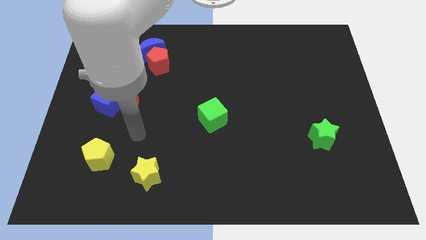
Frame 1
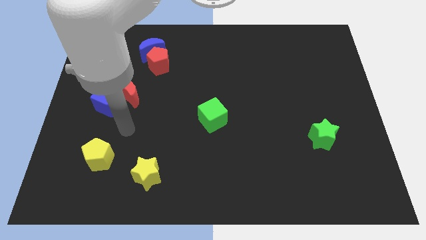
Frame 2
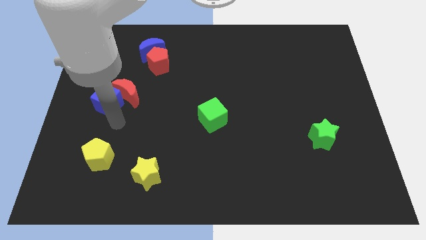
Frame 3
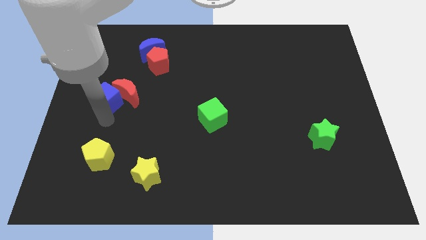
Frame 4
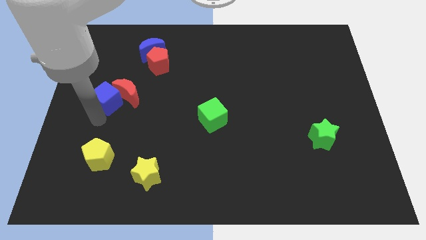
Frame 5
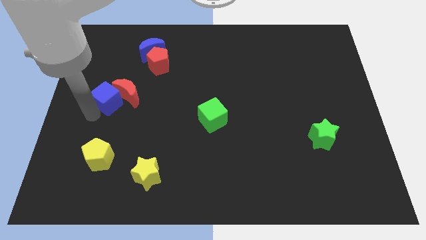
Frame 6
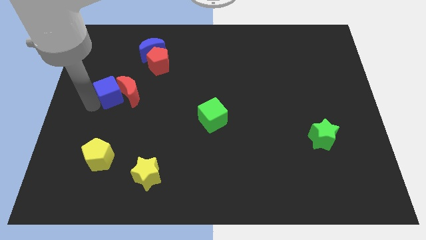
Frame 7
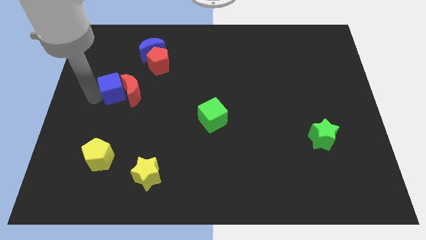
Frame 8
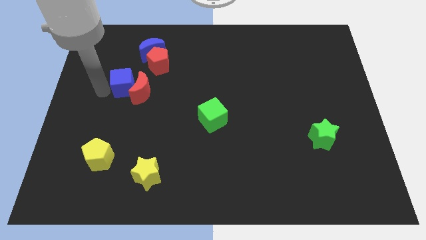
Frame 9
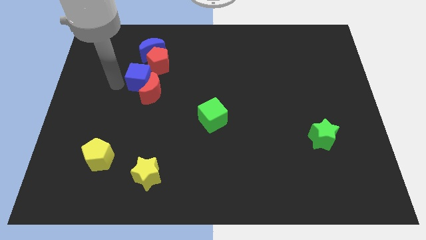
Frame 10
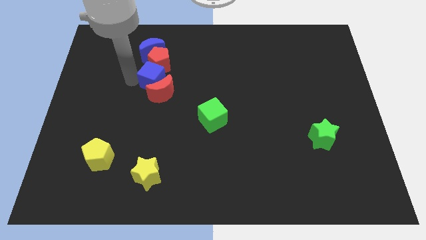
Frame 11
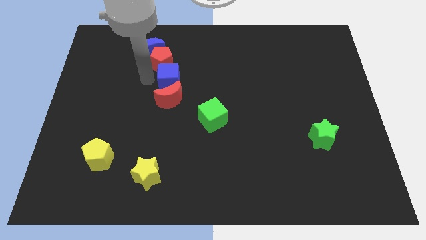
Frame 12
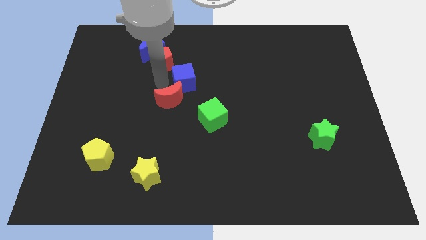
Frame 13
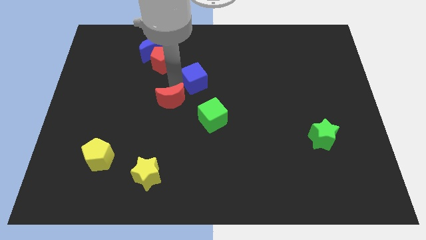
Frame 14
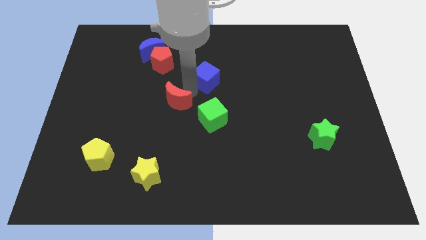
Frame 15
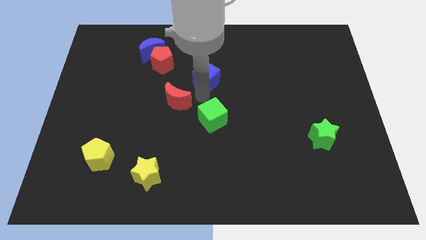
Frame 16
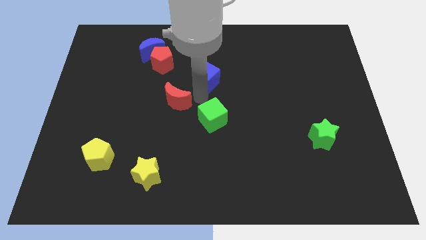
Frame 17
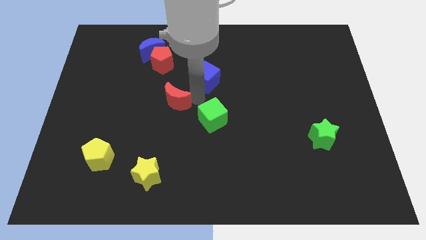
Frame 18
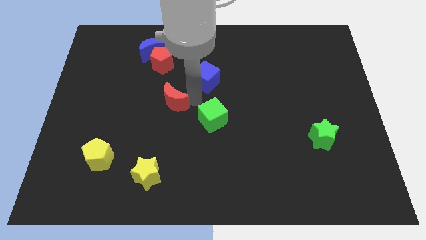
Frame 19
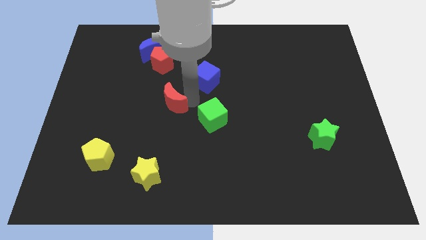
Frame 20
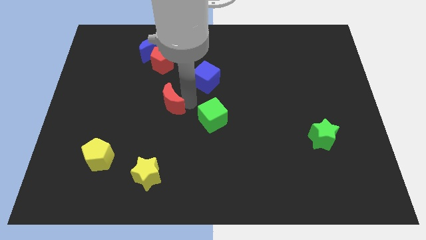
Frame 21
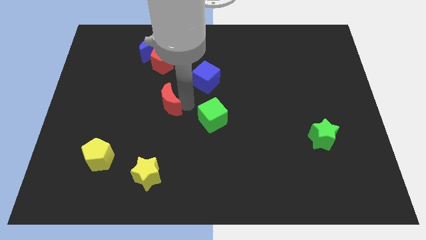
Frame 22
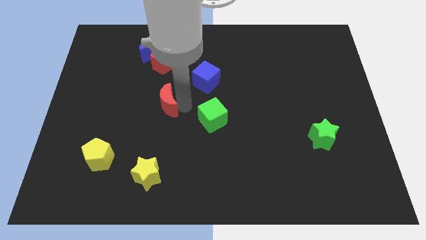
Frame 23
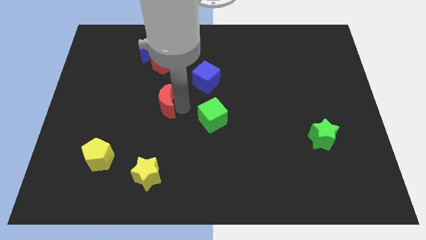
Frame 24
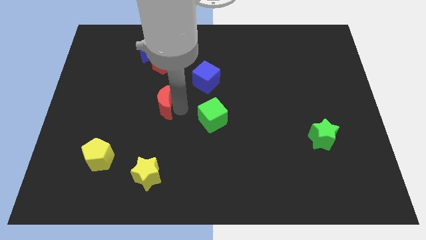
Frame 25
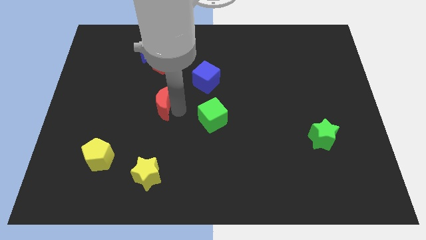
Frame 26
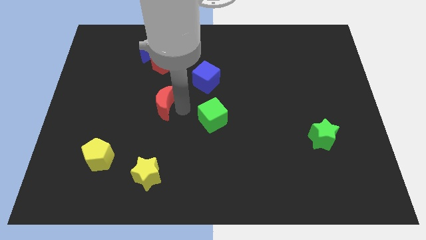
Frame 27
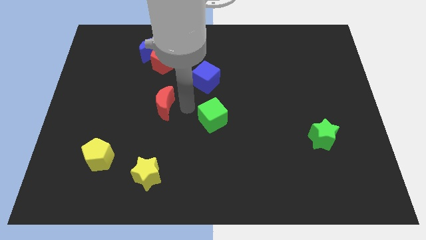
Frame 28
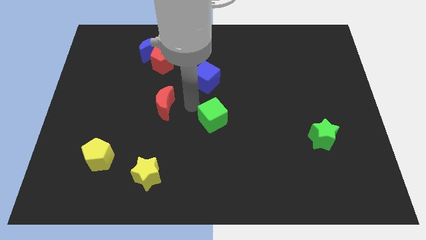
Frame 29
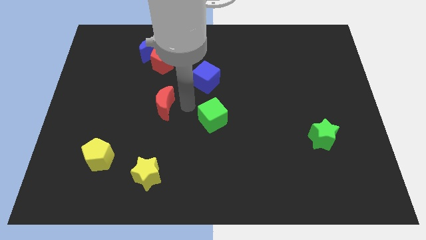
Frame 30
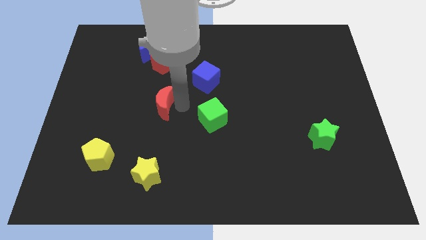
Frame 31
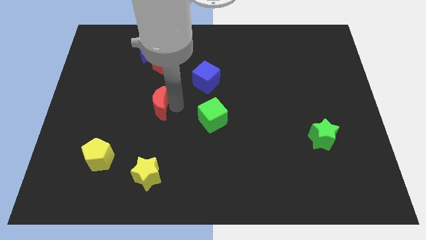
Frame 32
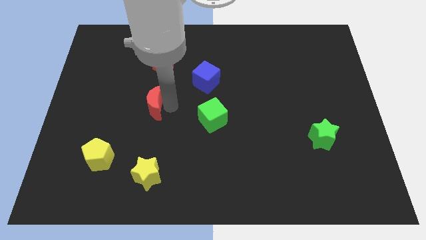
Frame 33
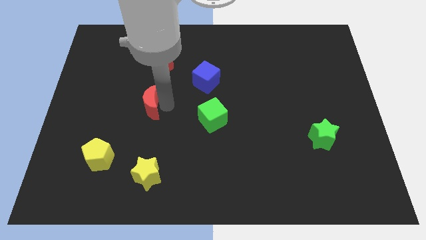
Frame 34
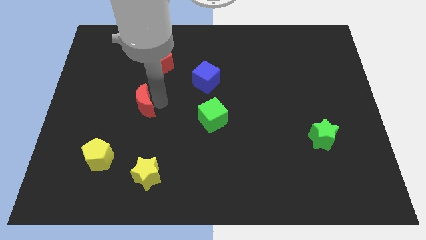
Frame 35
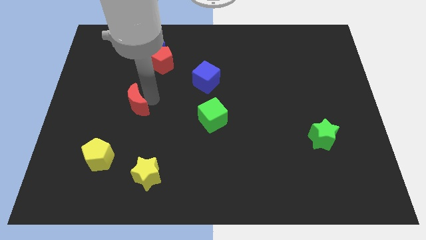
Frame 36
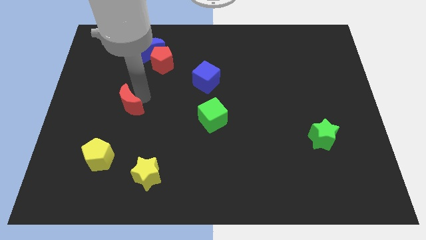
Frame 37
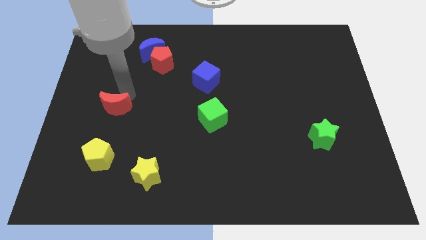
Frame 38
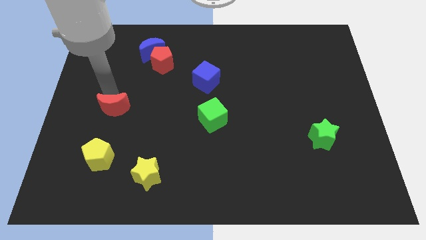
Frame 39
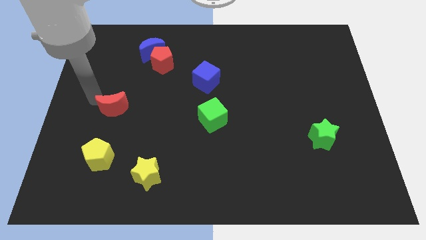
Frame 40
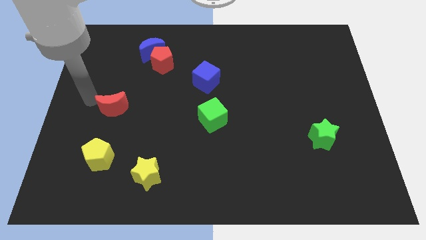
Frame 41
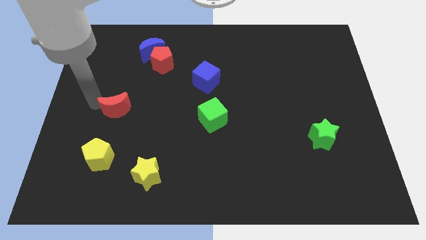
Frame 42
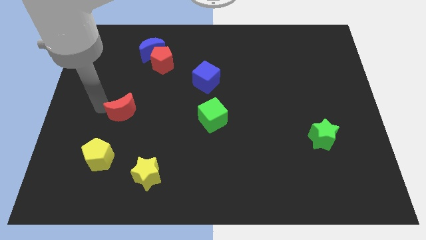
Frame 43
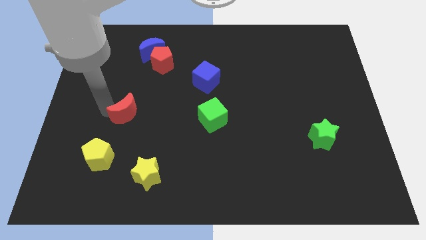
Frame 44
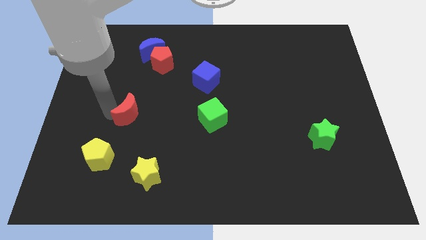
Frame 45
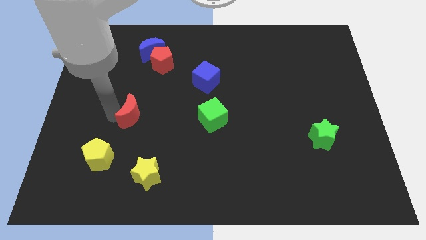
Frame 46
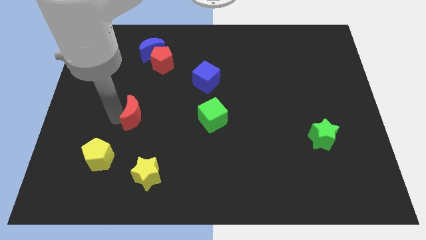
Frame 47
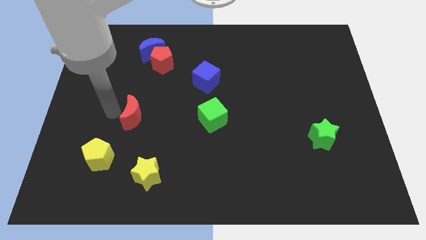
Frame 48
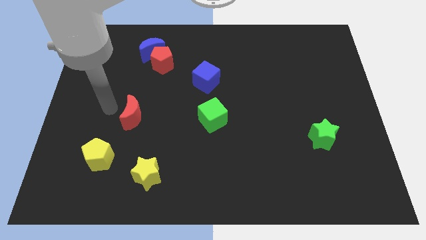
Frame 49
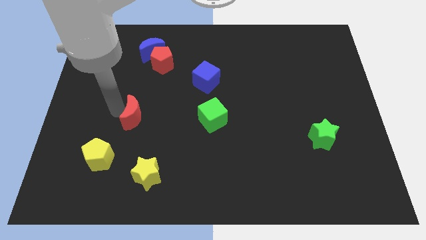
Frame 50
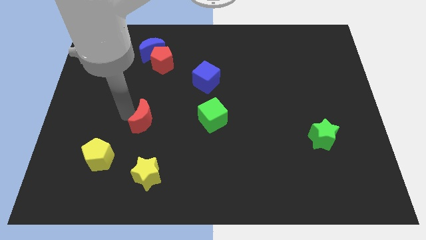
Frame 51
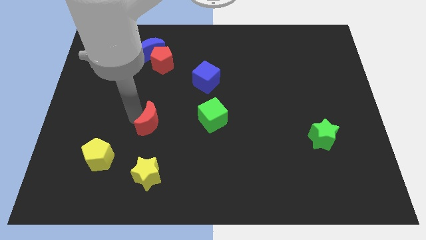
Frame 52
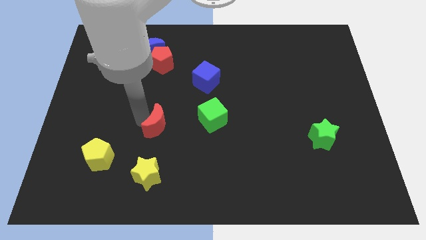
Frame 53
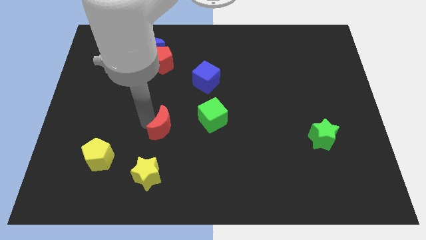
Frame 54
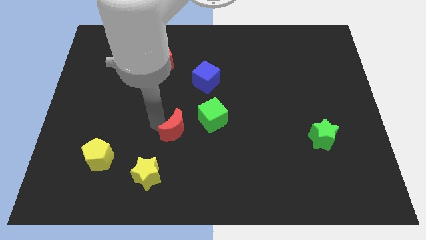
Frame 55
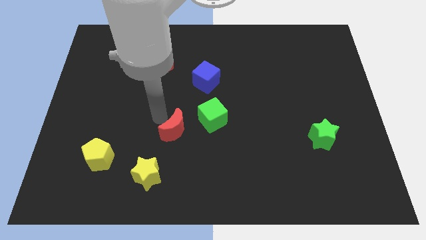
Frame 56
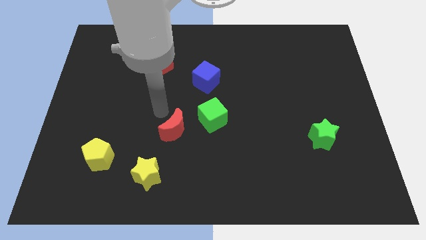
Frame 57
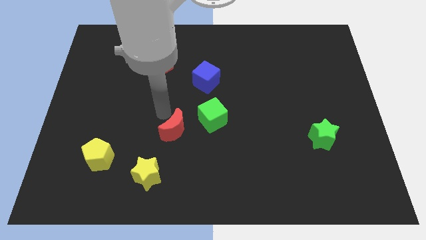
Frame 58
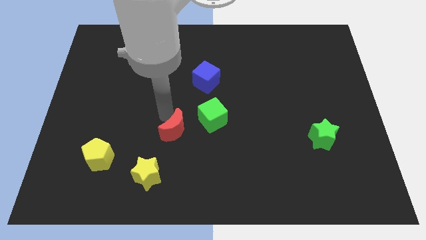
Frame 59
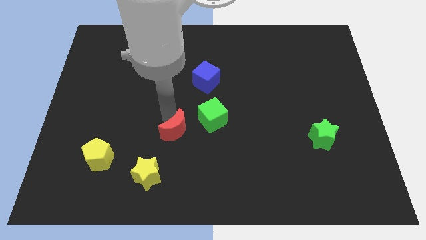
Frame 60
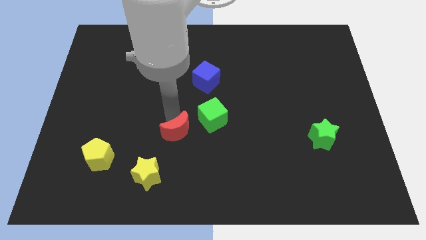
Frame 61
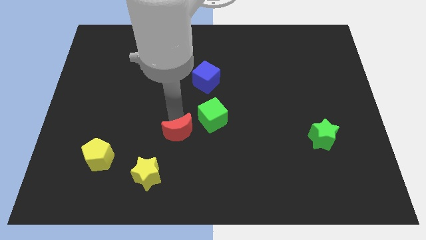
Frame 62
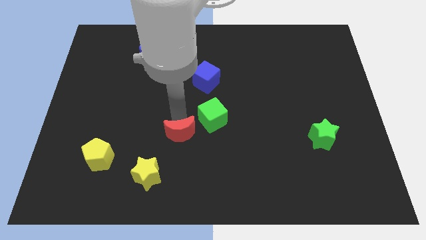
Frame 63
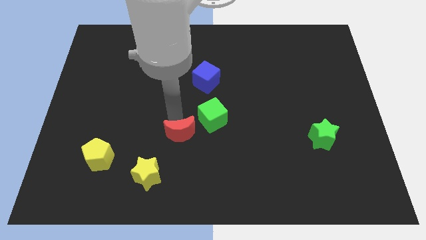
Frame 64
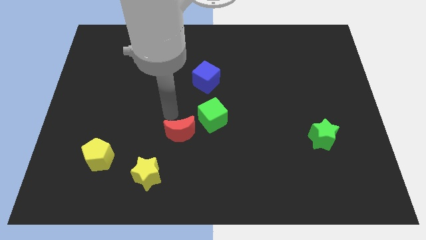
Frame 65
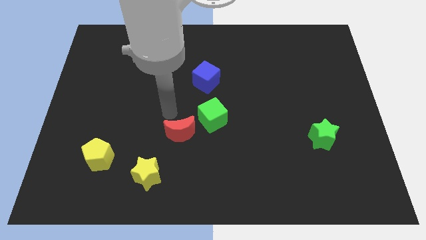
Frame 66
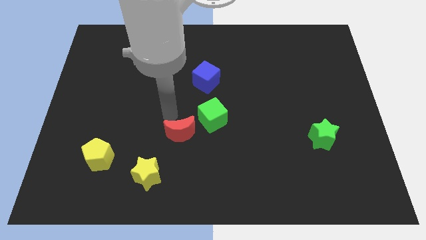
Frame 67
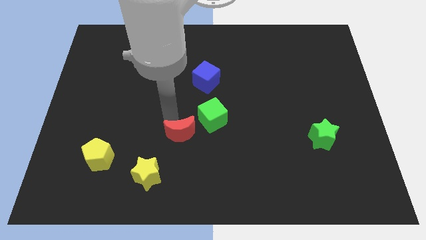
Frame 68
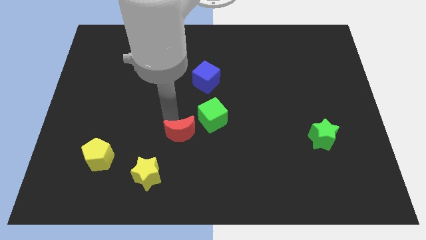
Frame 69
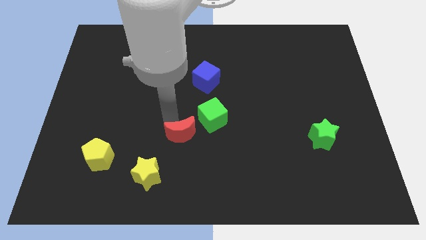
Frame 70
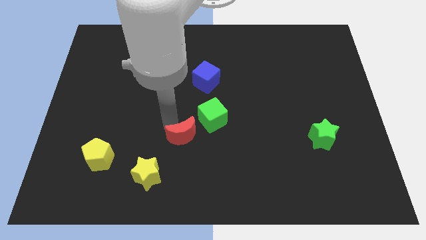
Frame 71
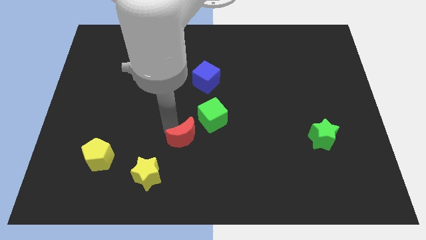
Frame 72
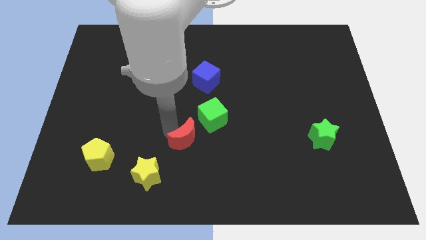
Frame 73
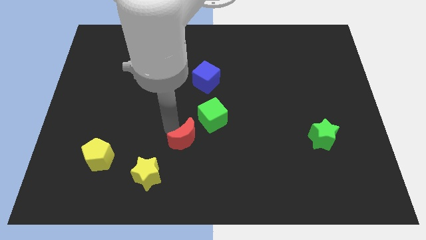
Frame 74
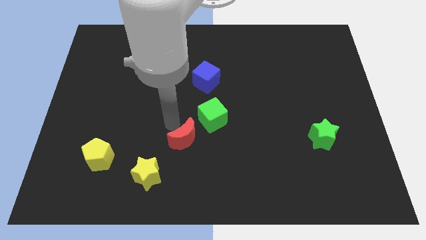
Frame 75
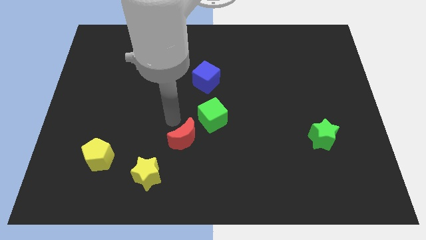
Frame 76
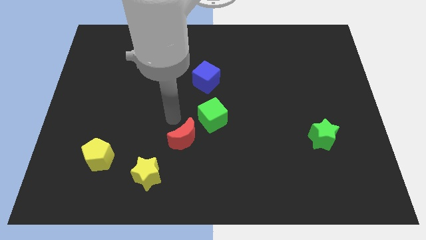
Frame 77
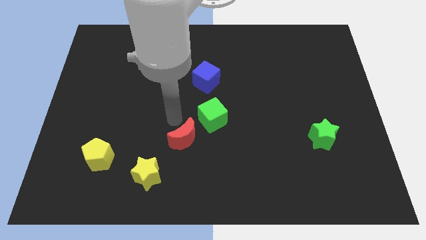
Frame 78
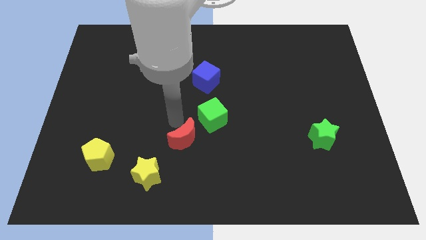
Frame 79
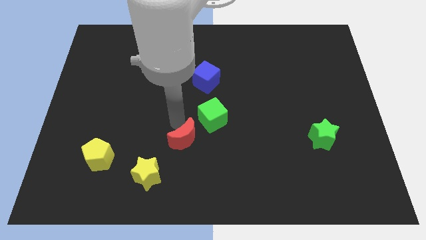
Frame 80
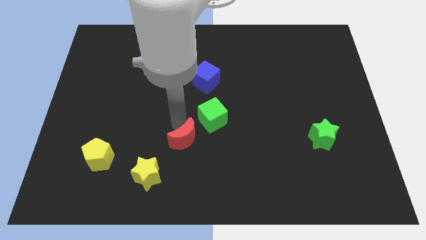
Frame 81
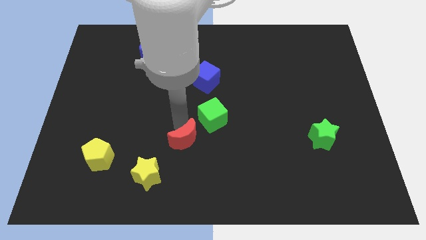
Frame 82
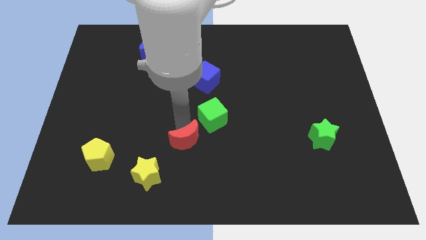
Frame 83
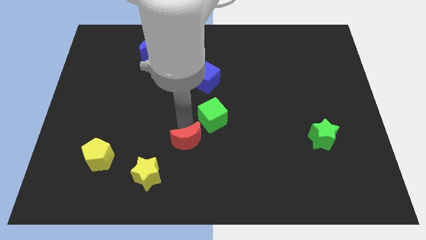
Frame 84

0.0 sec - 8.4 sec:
slide the red moon down and right diagonally
